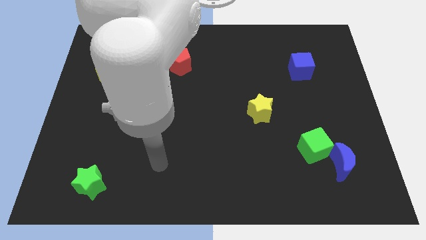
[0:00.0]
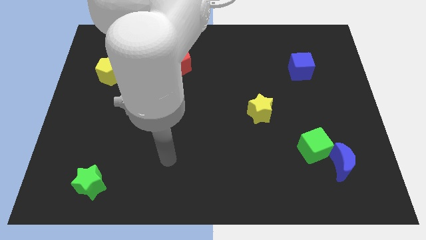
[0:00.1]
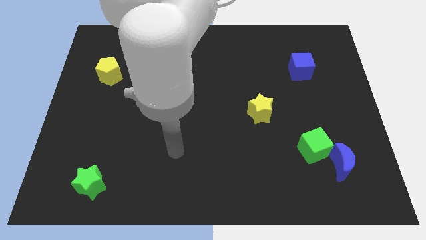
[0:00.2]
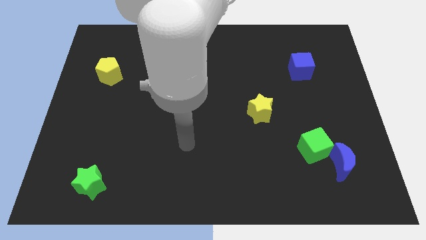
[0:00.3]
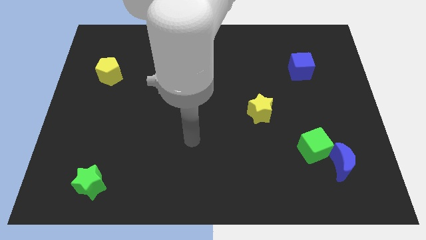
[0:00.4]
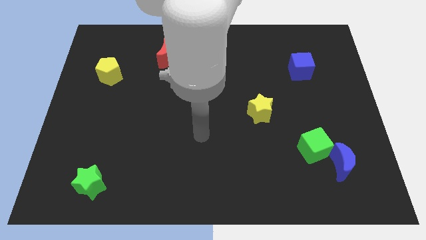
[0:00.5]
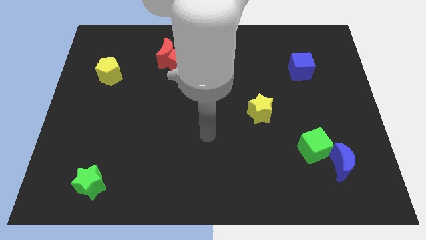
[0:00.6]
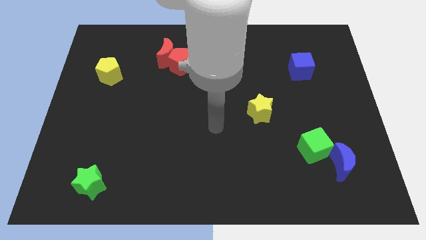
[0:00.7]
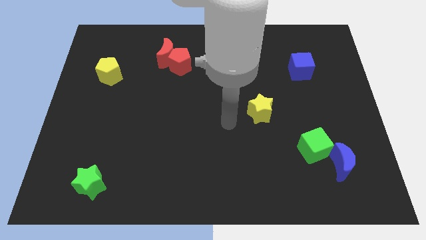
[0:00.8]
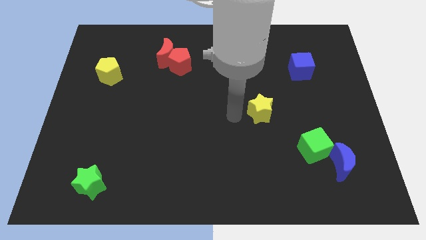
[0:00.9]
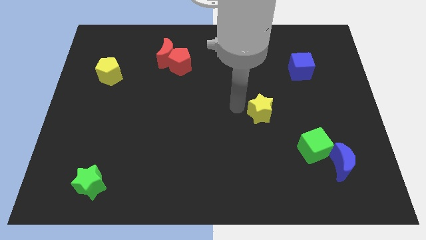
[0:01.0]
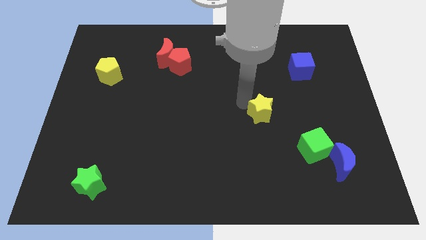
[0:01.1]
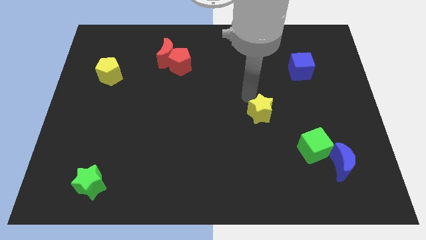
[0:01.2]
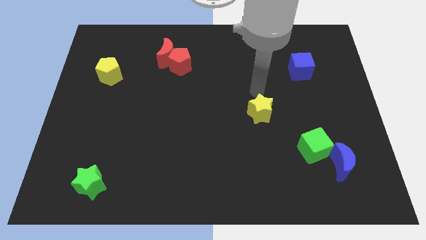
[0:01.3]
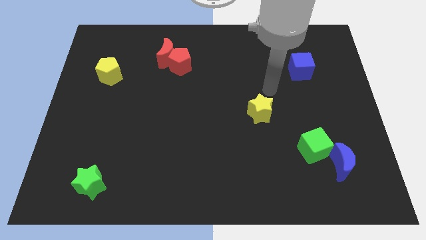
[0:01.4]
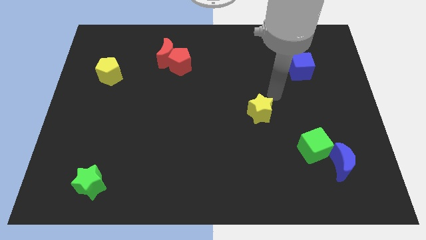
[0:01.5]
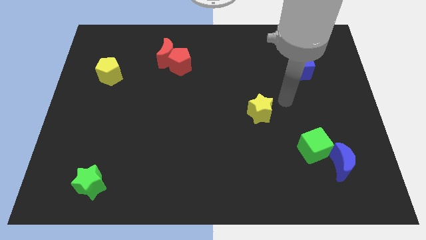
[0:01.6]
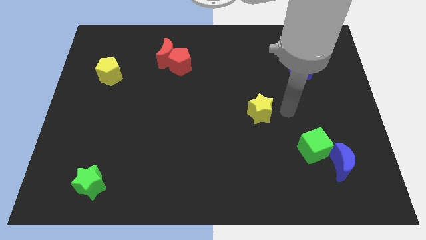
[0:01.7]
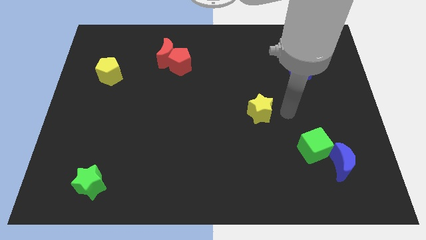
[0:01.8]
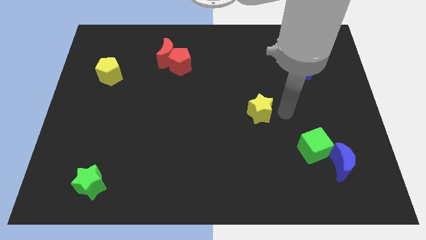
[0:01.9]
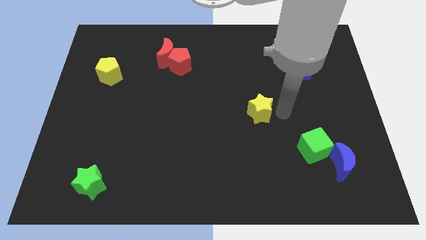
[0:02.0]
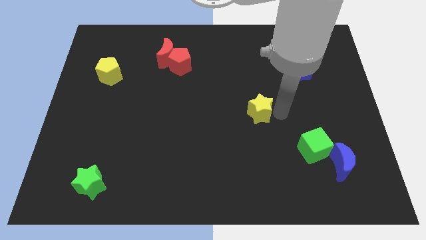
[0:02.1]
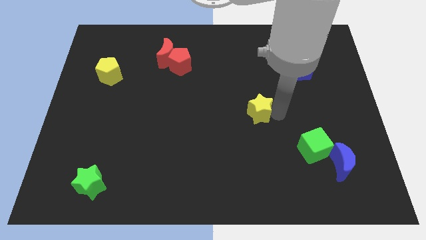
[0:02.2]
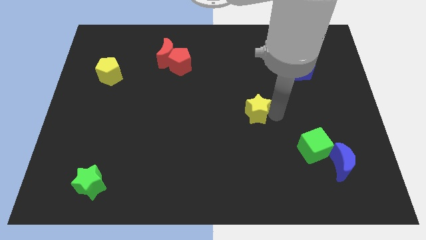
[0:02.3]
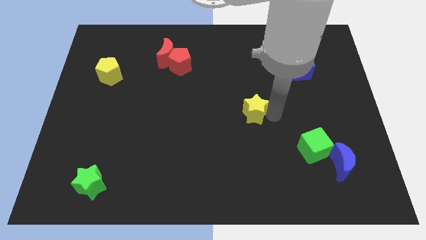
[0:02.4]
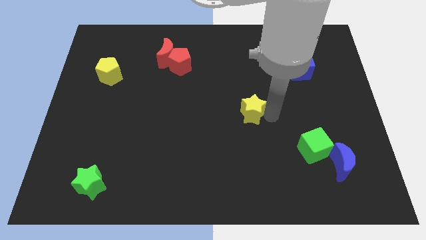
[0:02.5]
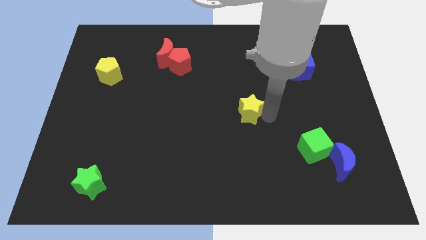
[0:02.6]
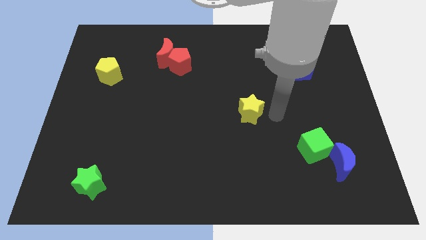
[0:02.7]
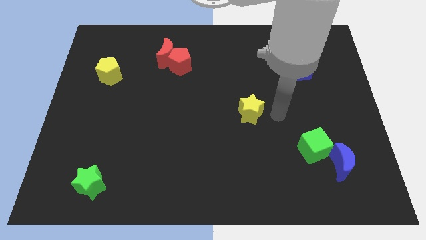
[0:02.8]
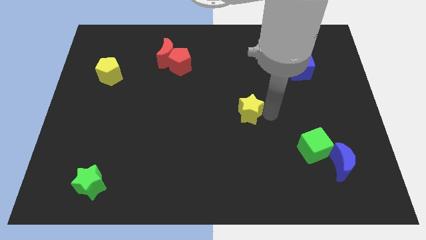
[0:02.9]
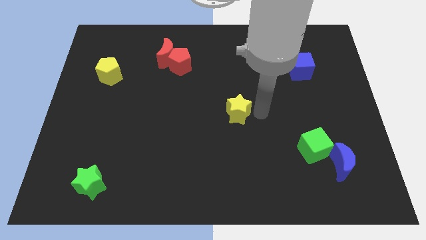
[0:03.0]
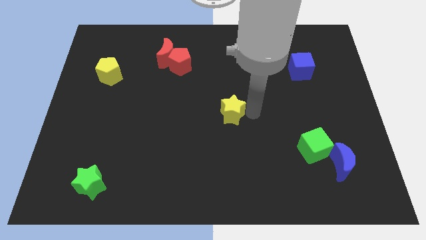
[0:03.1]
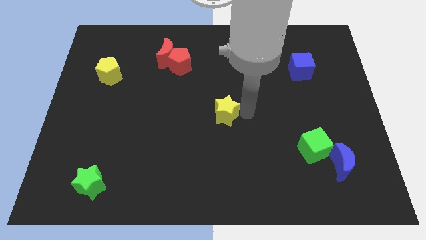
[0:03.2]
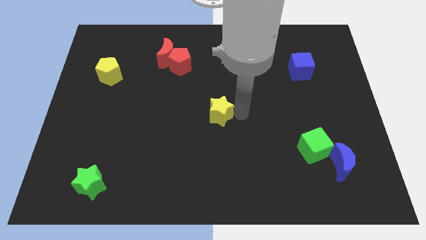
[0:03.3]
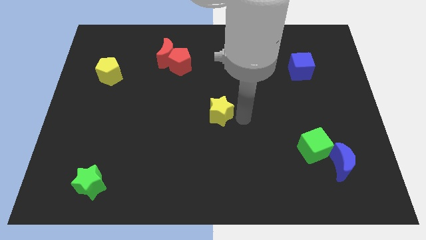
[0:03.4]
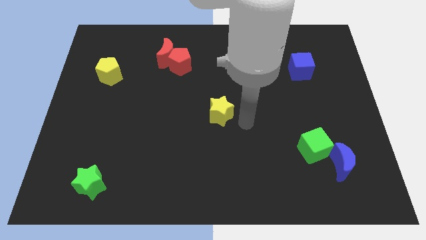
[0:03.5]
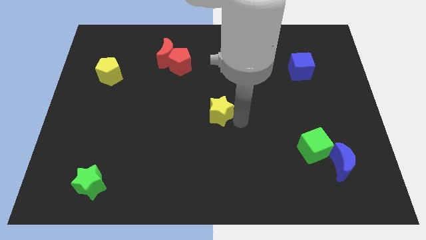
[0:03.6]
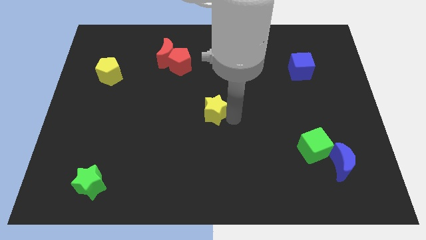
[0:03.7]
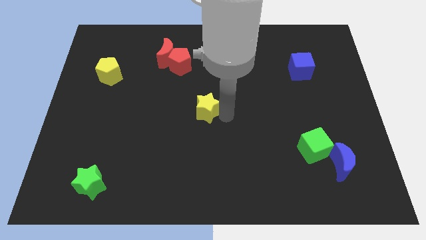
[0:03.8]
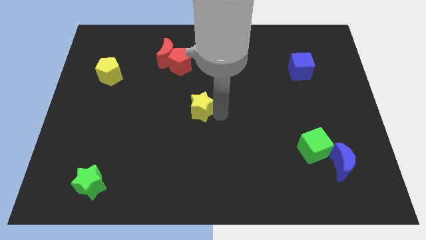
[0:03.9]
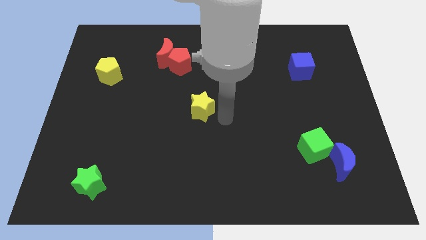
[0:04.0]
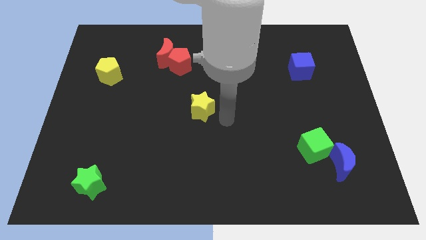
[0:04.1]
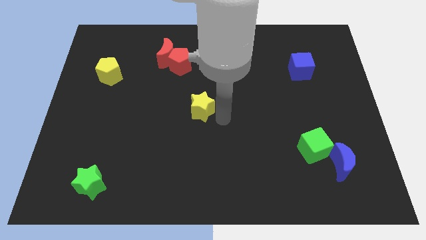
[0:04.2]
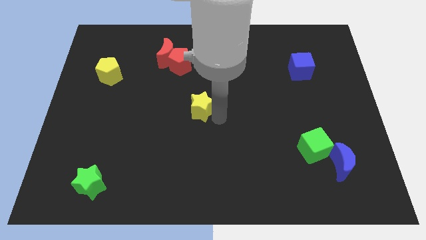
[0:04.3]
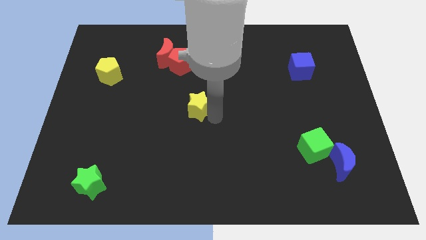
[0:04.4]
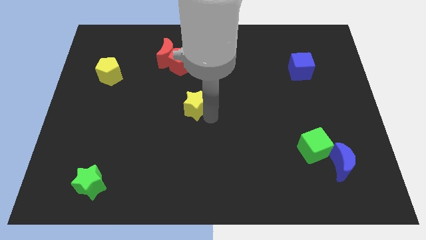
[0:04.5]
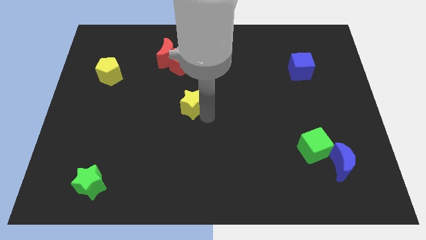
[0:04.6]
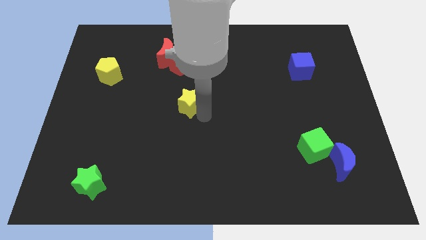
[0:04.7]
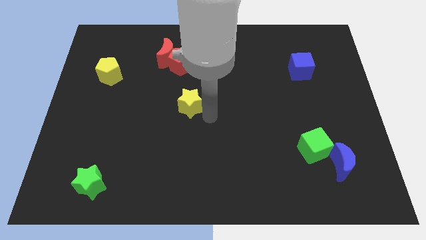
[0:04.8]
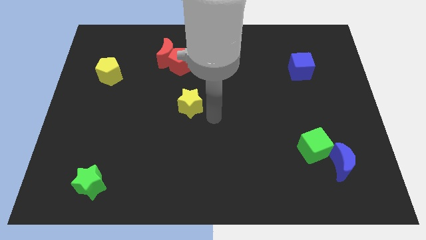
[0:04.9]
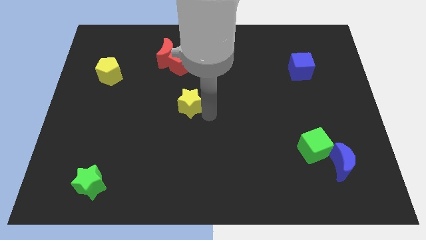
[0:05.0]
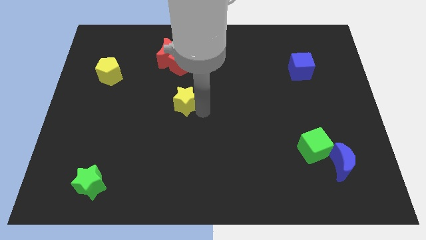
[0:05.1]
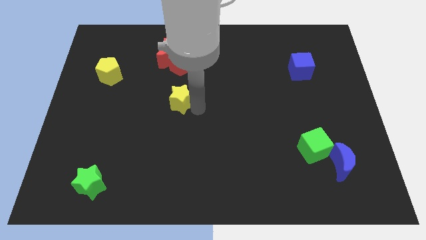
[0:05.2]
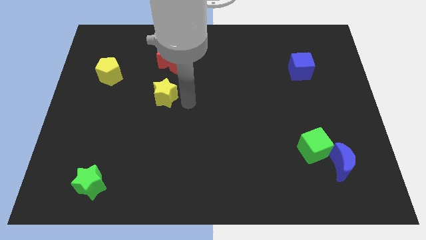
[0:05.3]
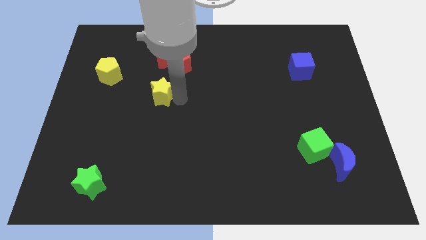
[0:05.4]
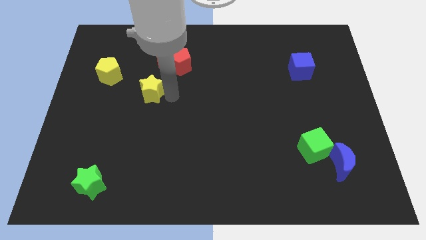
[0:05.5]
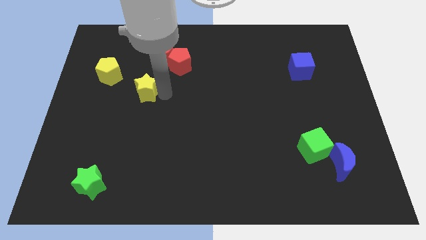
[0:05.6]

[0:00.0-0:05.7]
push the yellow star to the bottom right of the yellow pentagon

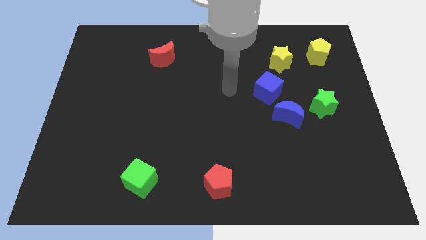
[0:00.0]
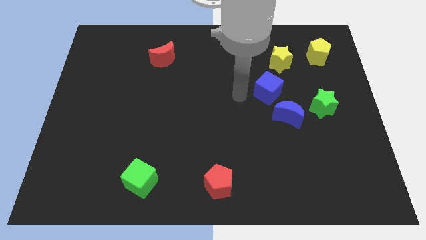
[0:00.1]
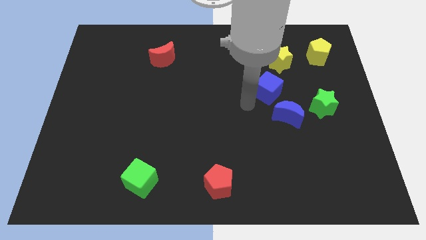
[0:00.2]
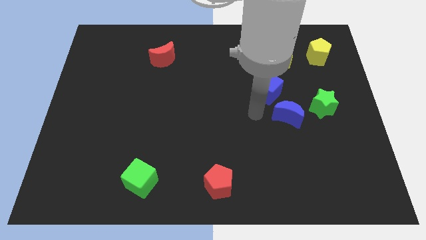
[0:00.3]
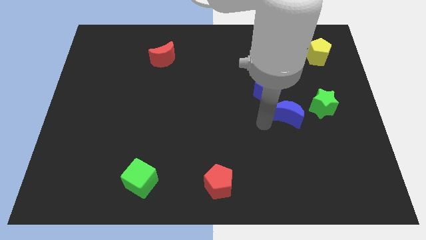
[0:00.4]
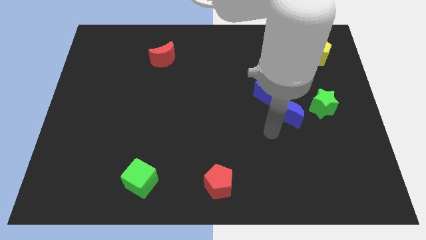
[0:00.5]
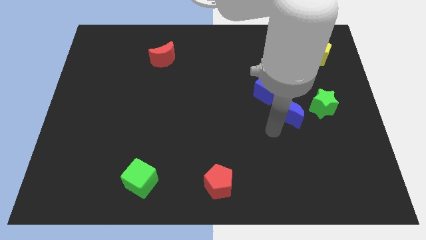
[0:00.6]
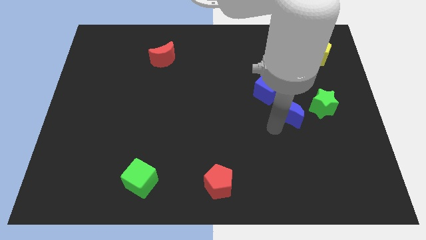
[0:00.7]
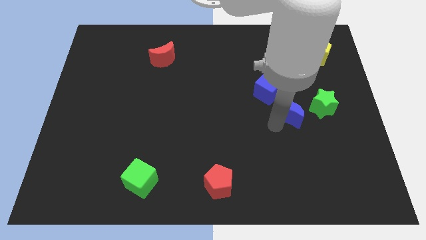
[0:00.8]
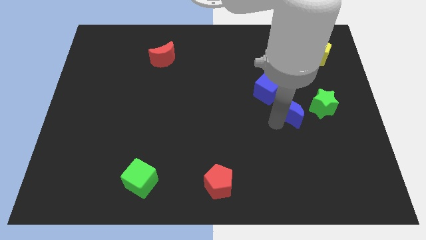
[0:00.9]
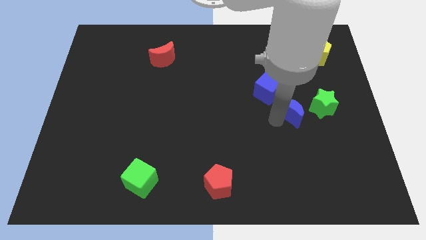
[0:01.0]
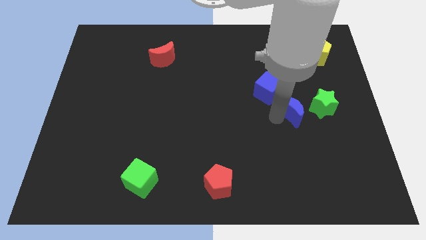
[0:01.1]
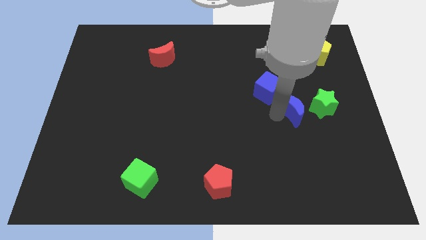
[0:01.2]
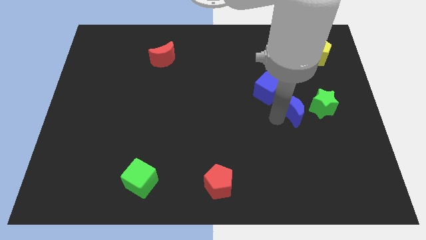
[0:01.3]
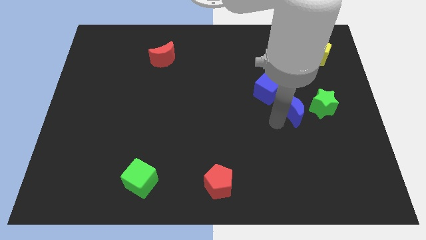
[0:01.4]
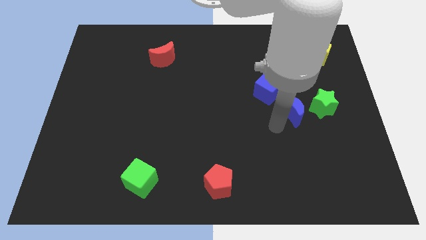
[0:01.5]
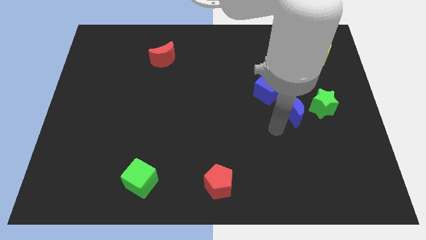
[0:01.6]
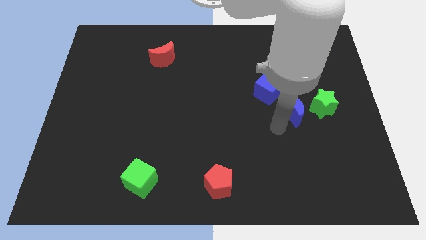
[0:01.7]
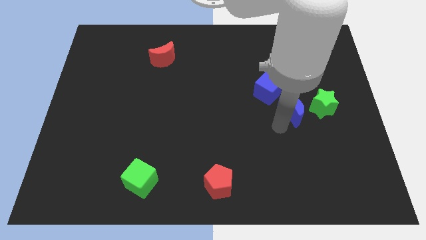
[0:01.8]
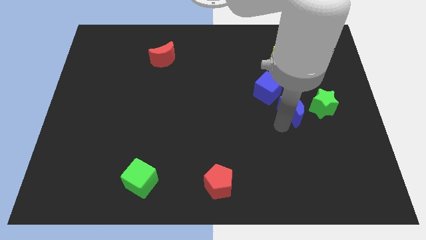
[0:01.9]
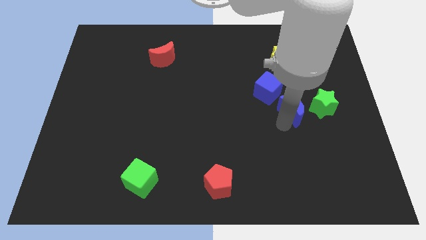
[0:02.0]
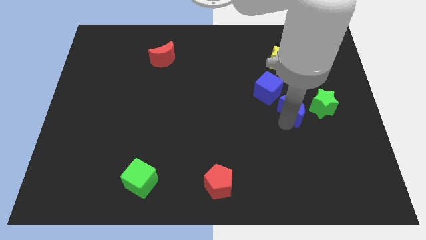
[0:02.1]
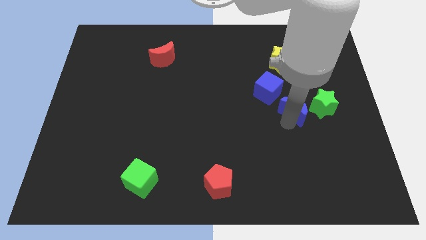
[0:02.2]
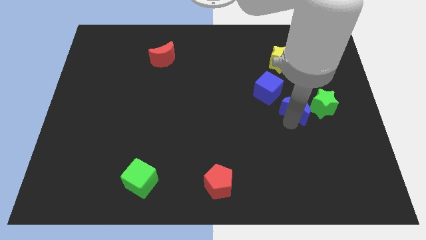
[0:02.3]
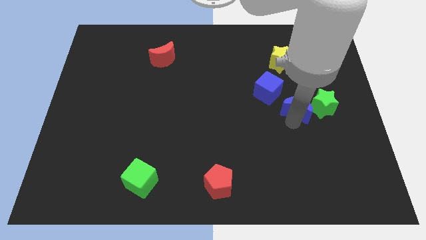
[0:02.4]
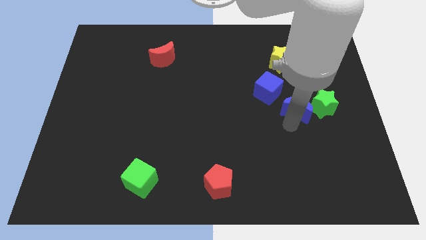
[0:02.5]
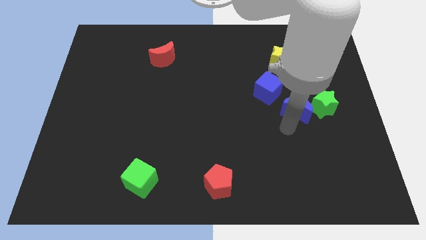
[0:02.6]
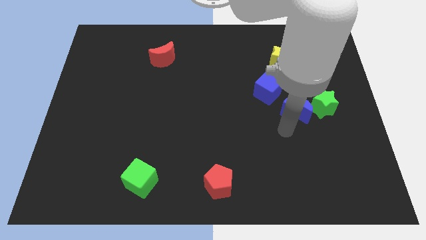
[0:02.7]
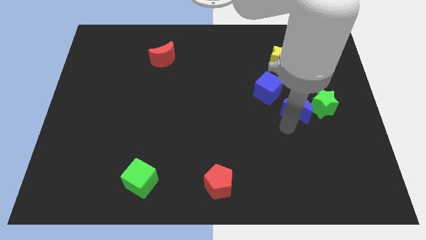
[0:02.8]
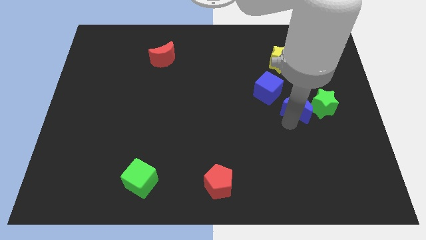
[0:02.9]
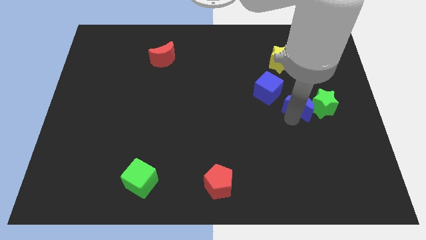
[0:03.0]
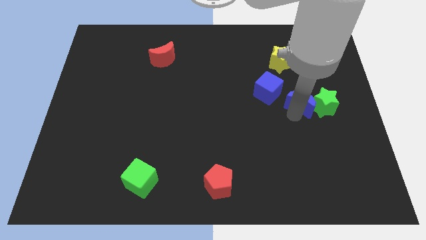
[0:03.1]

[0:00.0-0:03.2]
slide the blue moon to the right of the blue cube
